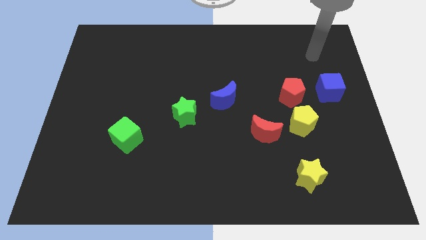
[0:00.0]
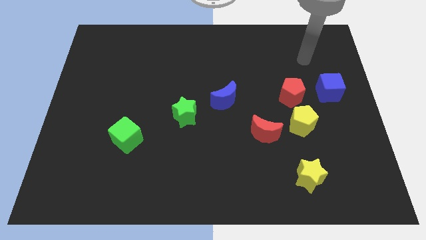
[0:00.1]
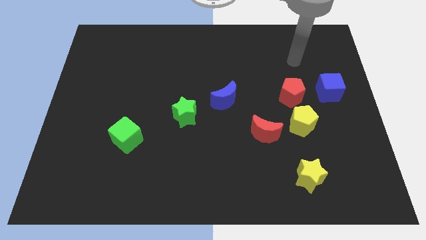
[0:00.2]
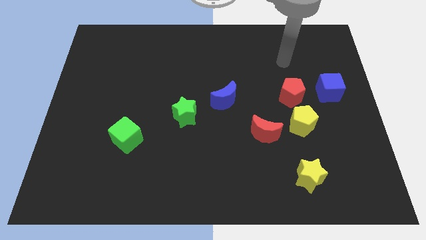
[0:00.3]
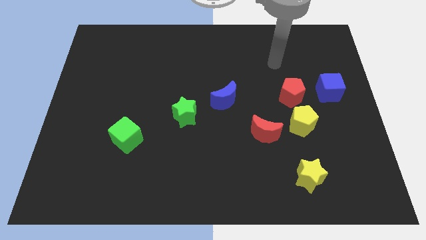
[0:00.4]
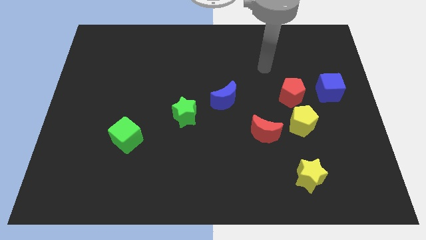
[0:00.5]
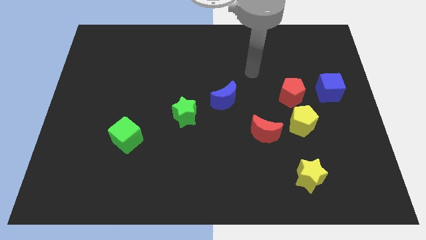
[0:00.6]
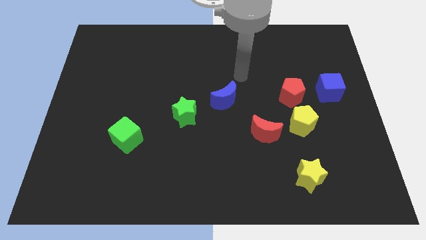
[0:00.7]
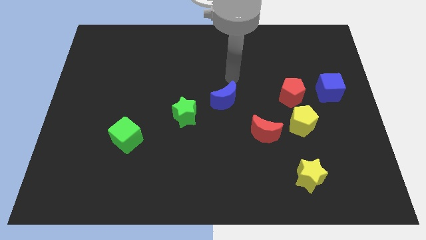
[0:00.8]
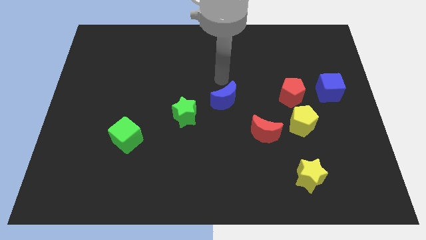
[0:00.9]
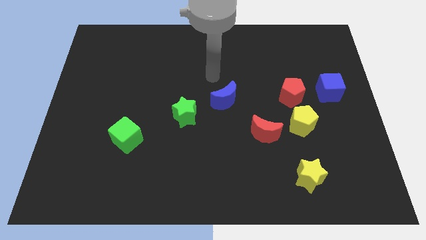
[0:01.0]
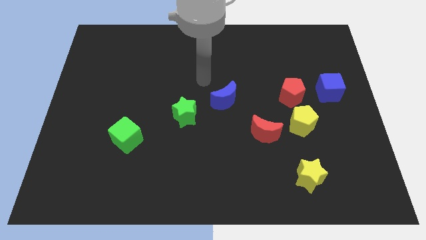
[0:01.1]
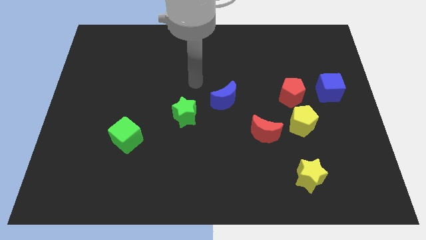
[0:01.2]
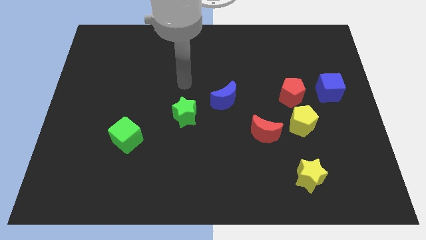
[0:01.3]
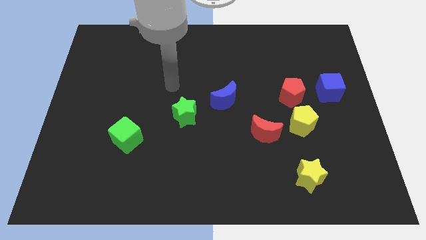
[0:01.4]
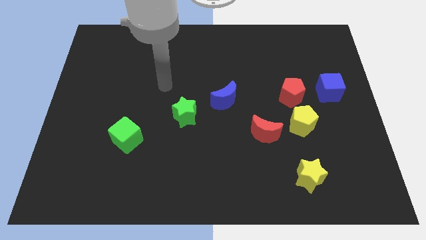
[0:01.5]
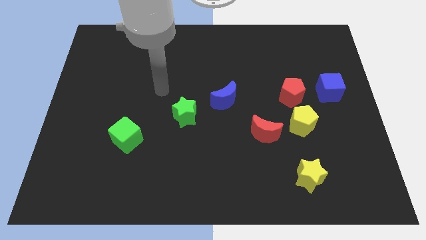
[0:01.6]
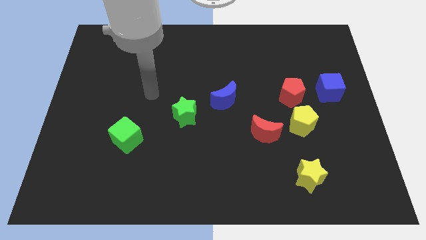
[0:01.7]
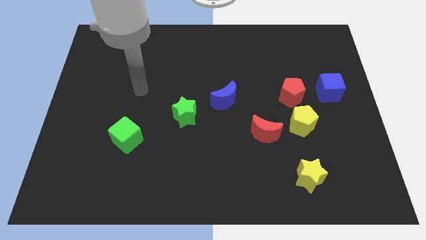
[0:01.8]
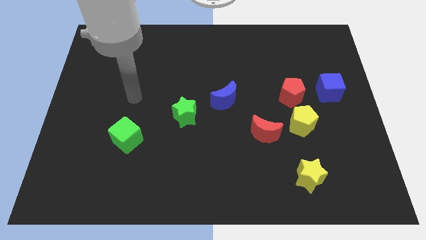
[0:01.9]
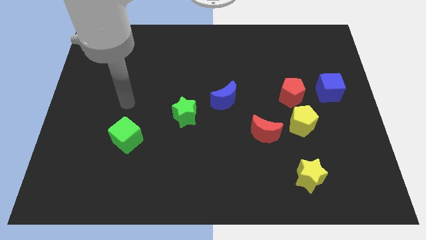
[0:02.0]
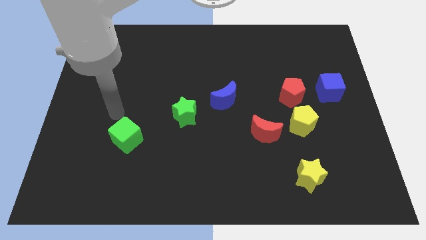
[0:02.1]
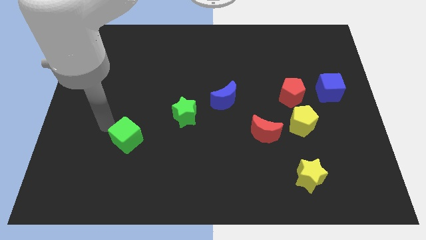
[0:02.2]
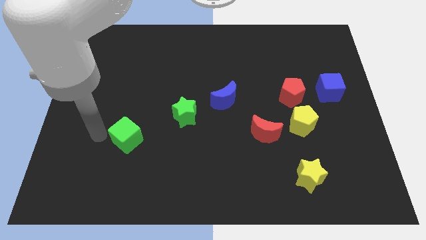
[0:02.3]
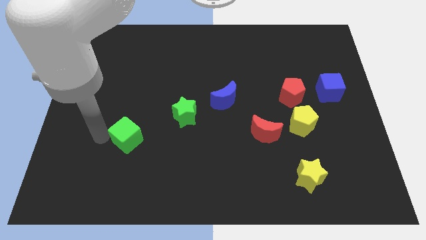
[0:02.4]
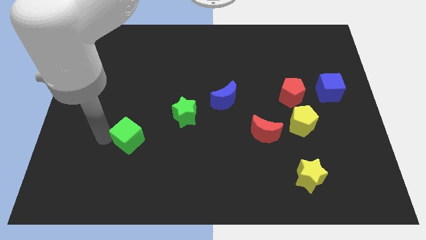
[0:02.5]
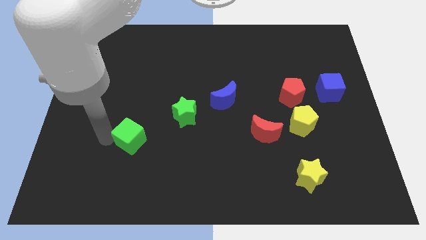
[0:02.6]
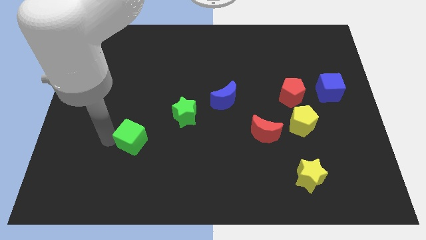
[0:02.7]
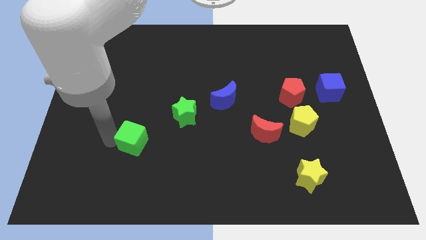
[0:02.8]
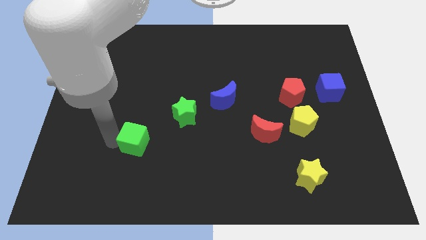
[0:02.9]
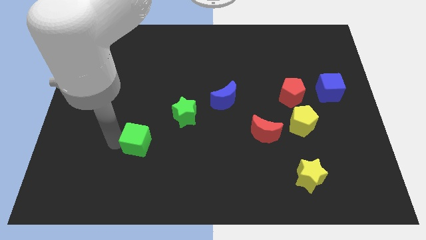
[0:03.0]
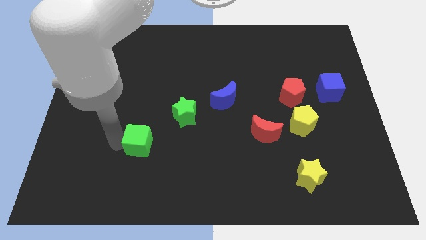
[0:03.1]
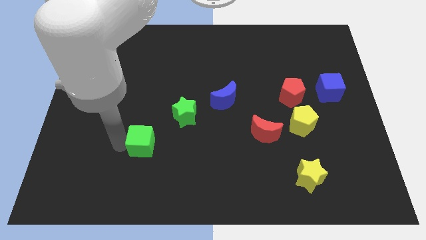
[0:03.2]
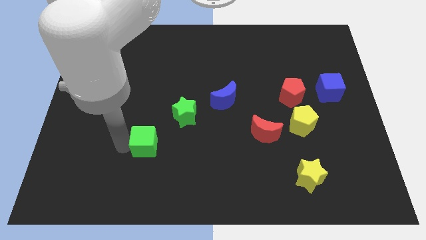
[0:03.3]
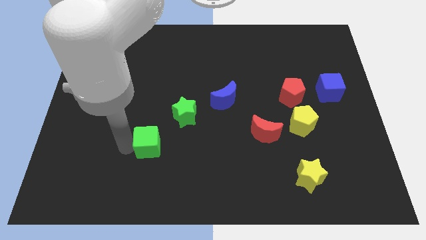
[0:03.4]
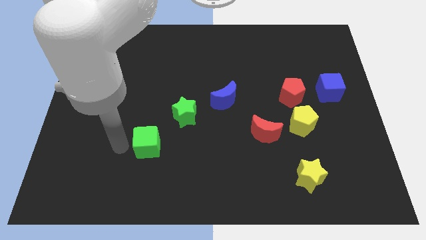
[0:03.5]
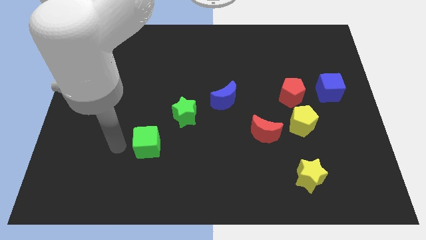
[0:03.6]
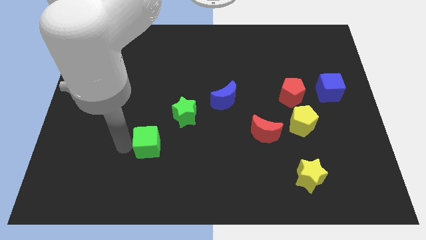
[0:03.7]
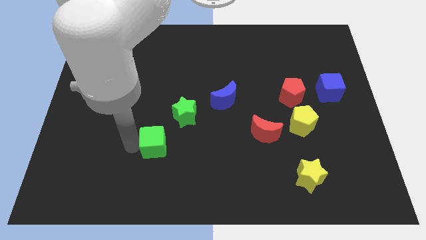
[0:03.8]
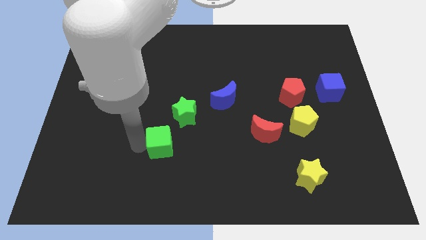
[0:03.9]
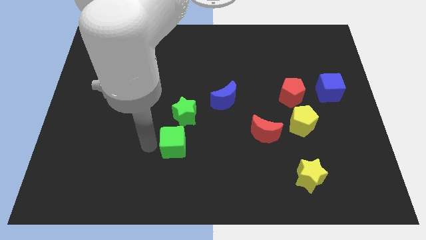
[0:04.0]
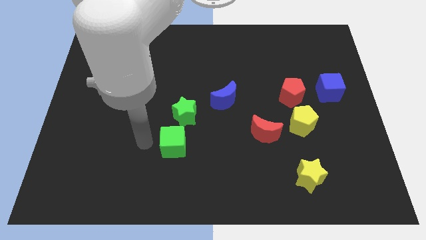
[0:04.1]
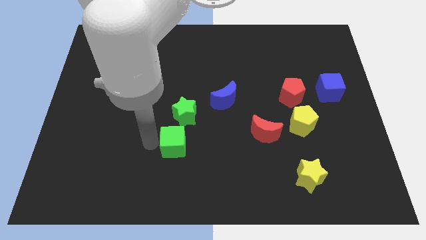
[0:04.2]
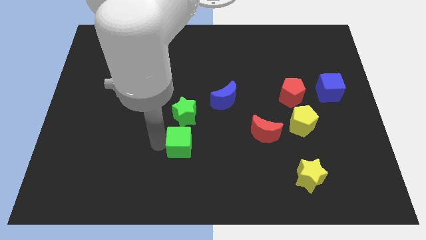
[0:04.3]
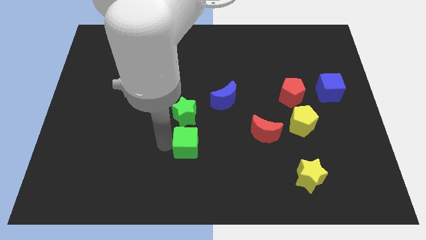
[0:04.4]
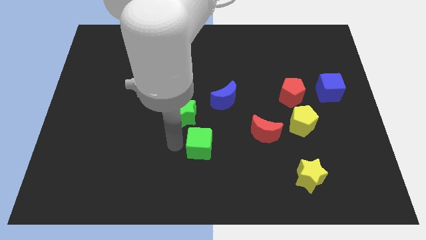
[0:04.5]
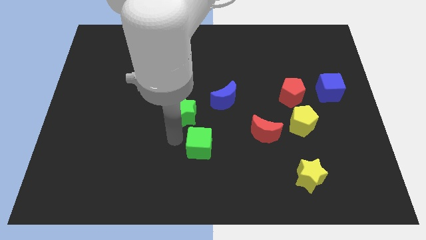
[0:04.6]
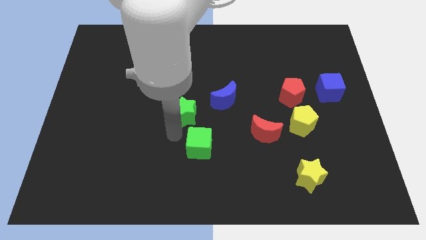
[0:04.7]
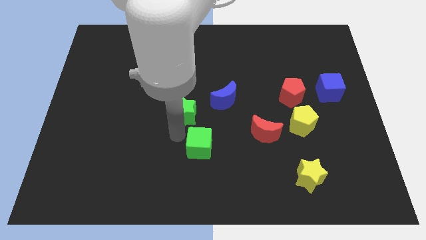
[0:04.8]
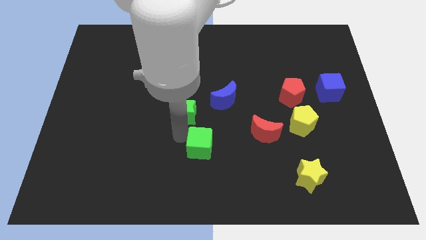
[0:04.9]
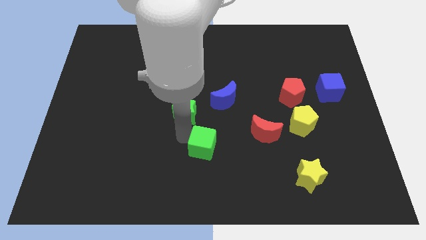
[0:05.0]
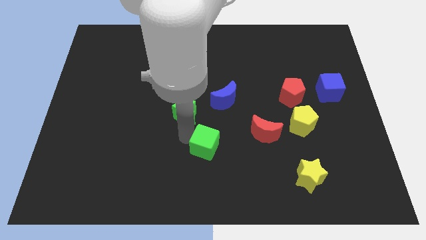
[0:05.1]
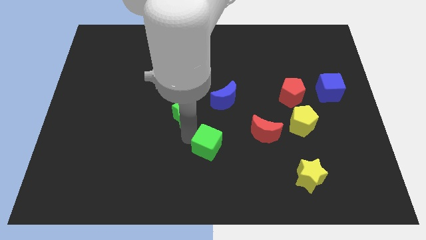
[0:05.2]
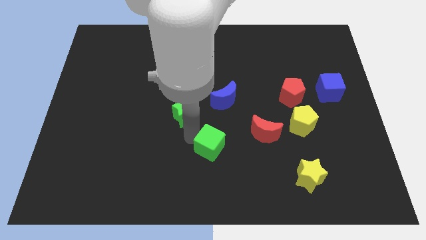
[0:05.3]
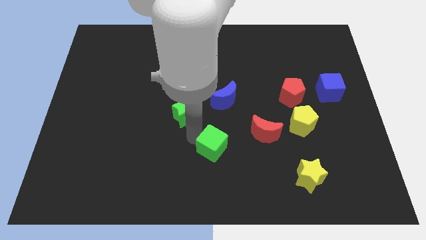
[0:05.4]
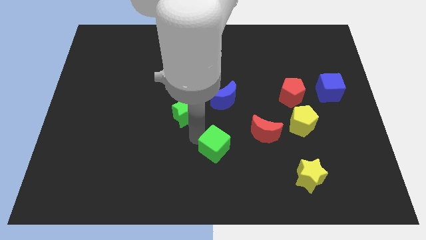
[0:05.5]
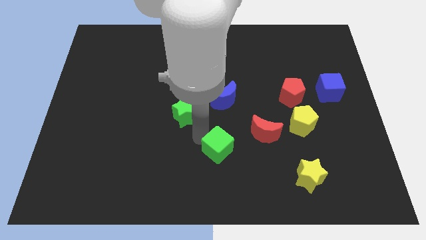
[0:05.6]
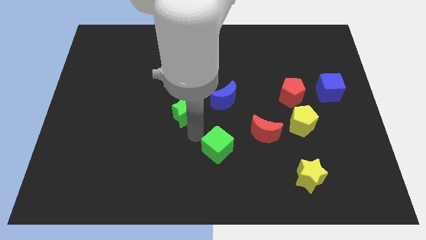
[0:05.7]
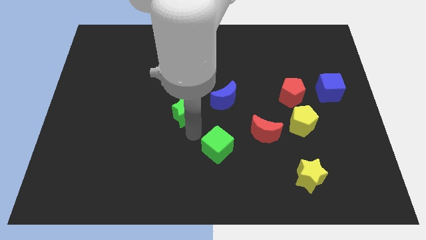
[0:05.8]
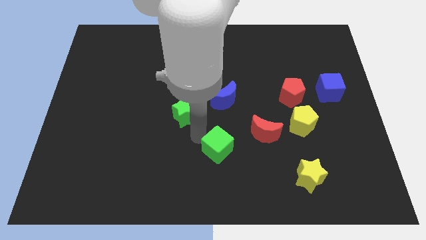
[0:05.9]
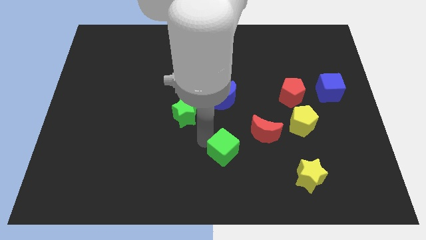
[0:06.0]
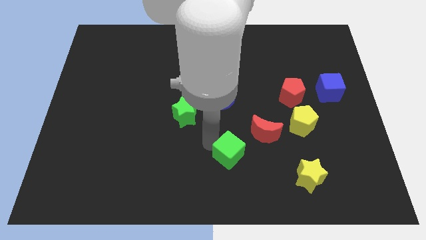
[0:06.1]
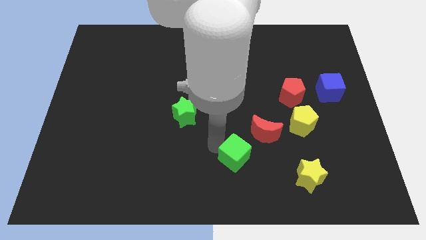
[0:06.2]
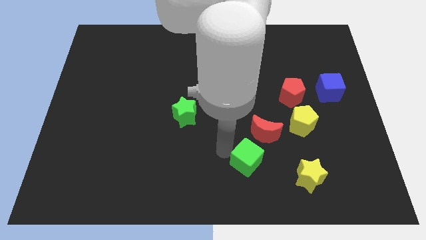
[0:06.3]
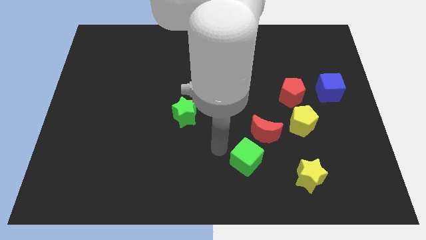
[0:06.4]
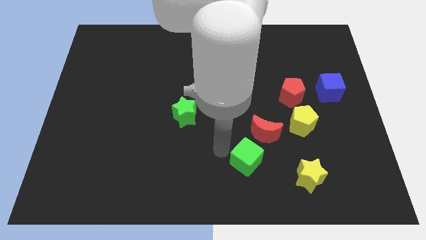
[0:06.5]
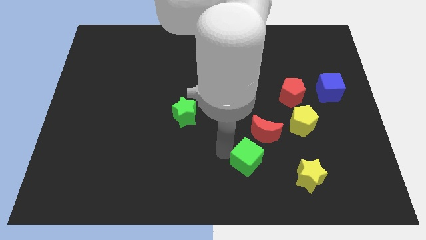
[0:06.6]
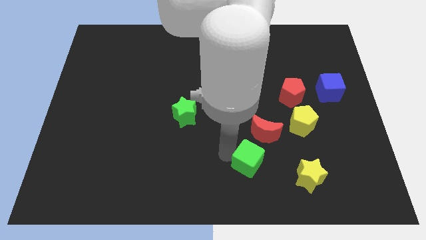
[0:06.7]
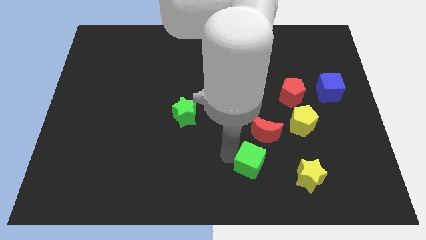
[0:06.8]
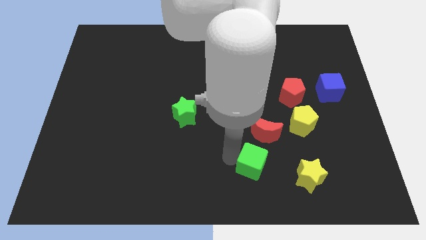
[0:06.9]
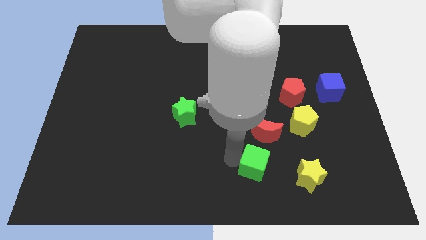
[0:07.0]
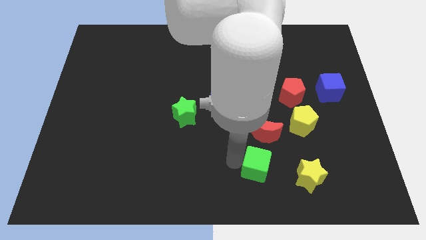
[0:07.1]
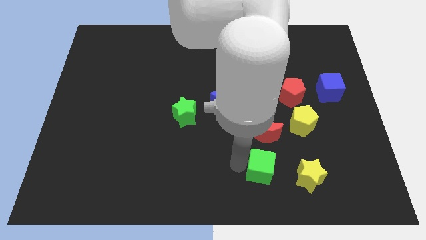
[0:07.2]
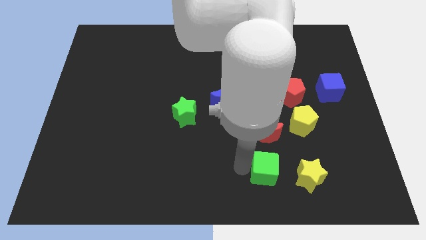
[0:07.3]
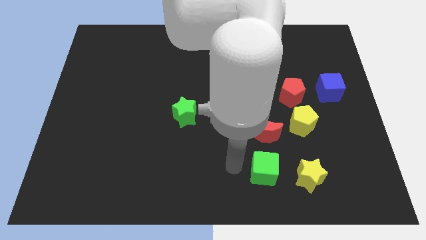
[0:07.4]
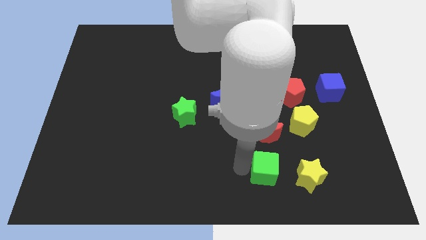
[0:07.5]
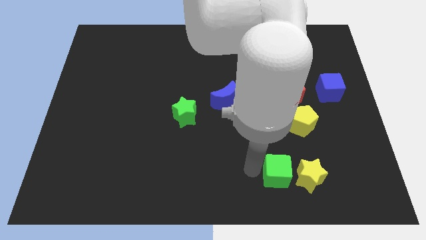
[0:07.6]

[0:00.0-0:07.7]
push the green cube to the yellow star
